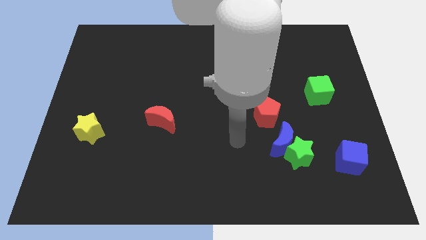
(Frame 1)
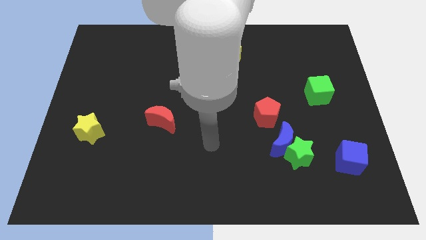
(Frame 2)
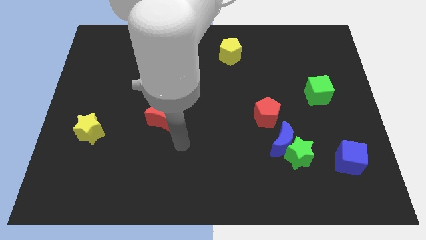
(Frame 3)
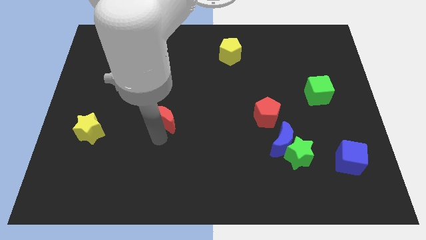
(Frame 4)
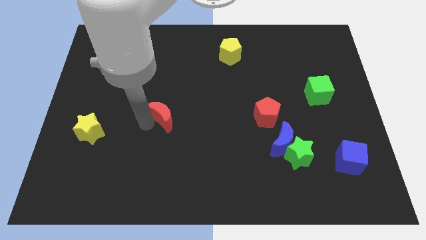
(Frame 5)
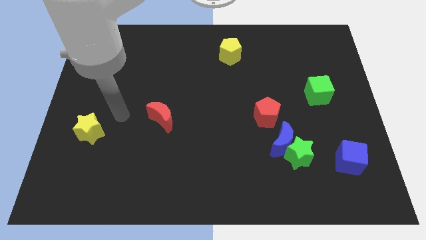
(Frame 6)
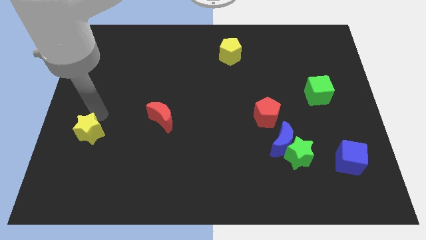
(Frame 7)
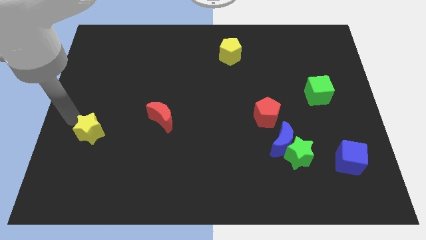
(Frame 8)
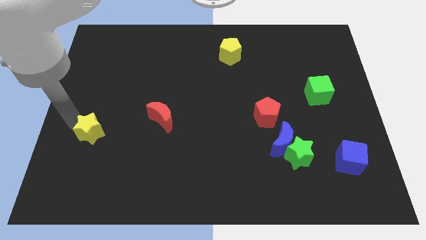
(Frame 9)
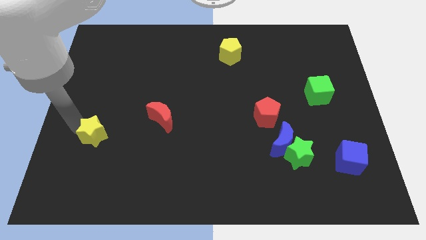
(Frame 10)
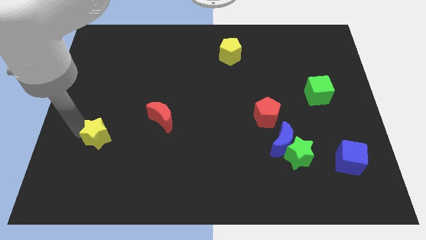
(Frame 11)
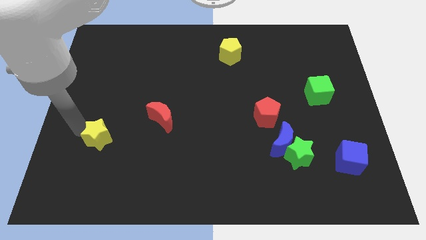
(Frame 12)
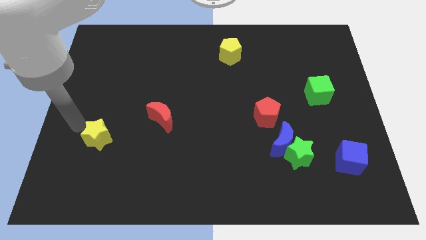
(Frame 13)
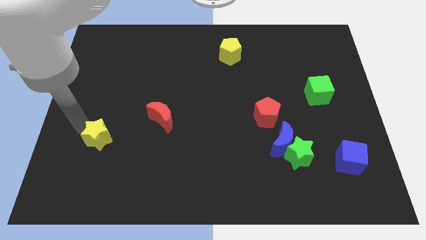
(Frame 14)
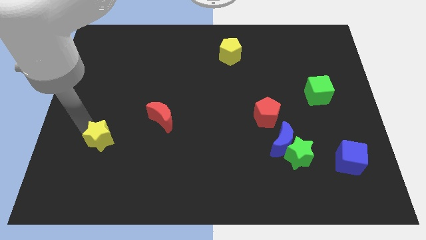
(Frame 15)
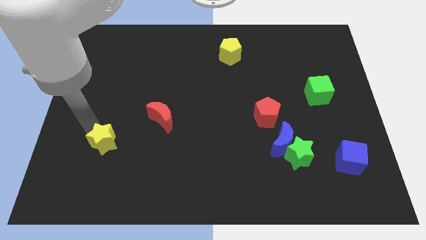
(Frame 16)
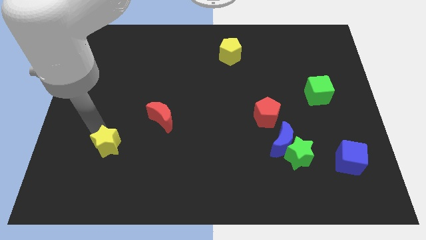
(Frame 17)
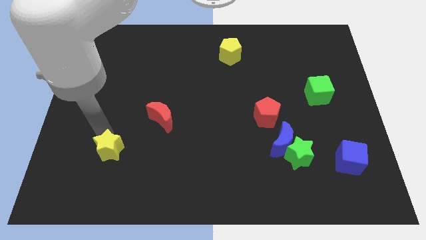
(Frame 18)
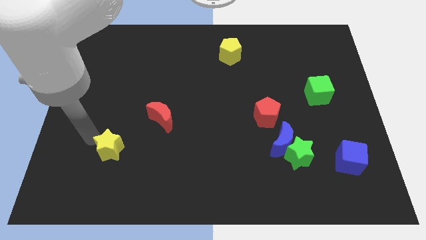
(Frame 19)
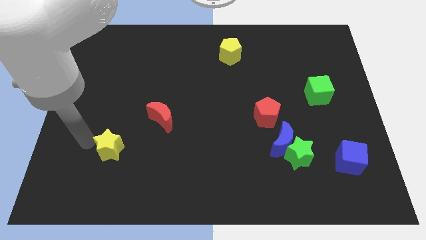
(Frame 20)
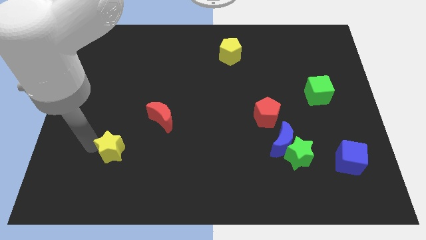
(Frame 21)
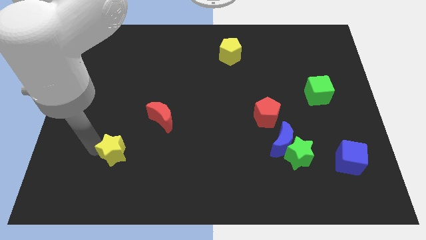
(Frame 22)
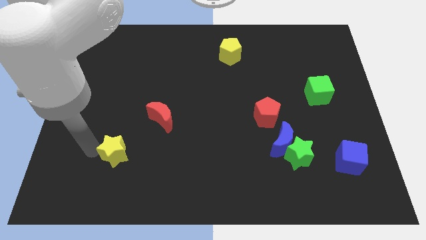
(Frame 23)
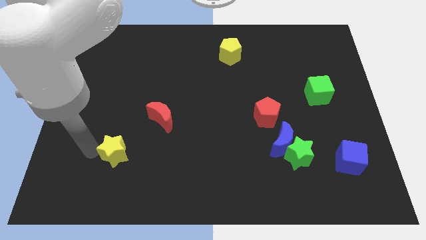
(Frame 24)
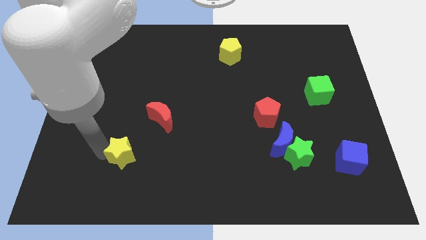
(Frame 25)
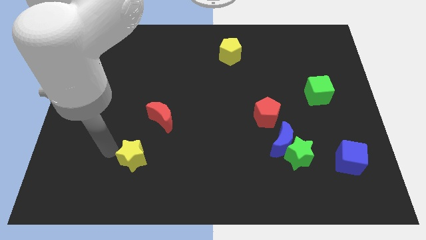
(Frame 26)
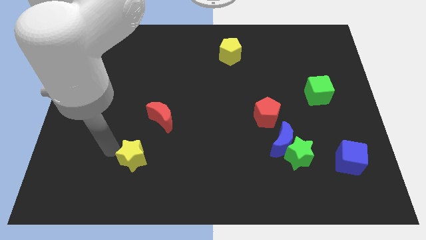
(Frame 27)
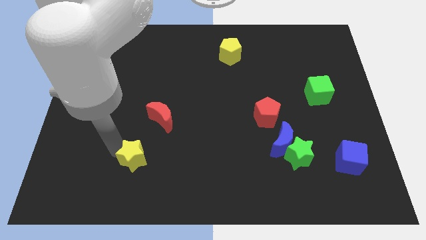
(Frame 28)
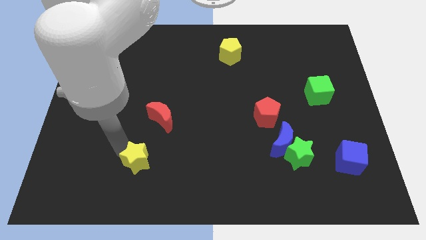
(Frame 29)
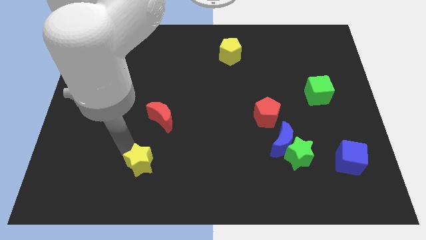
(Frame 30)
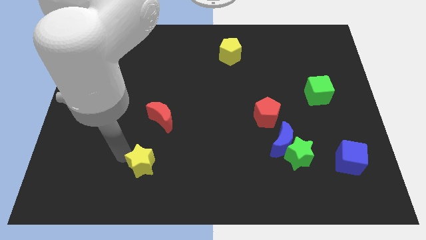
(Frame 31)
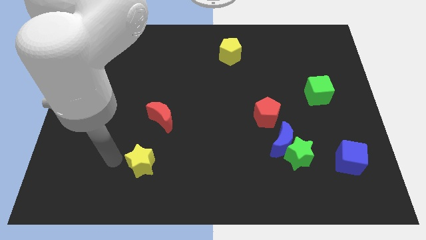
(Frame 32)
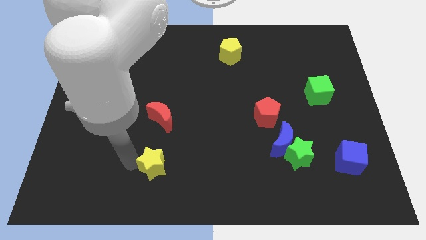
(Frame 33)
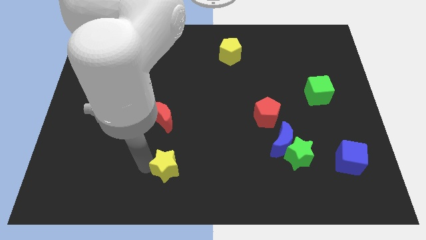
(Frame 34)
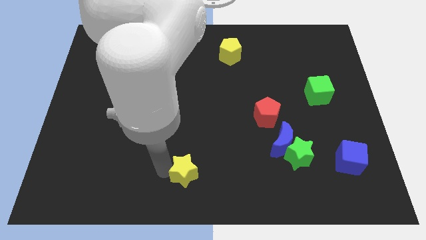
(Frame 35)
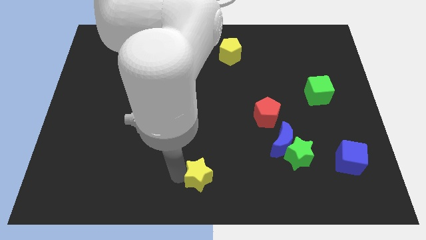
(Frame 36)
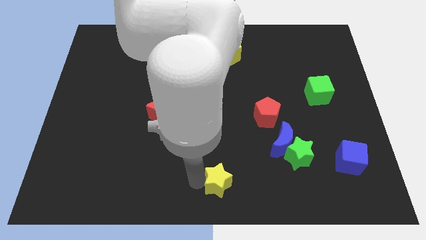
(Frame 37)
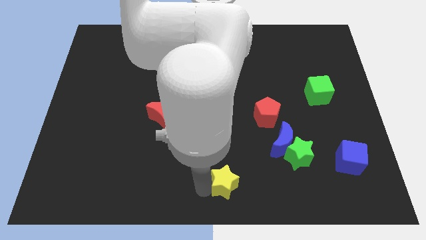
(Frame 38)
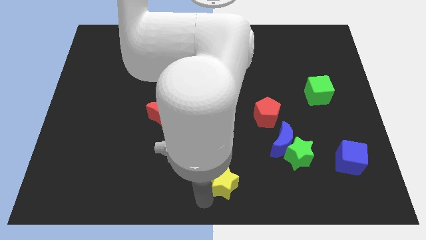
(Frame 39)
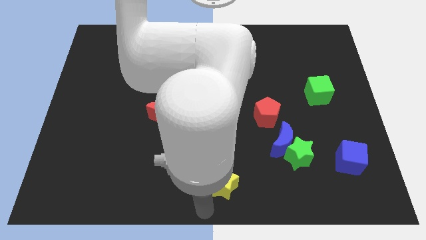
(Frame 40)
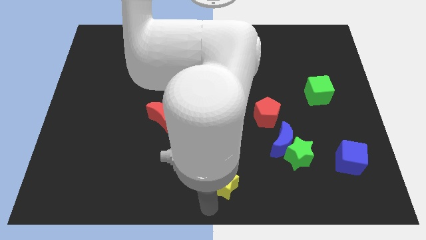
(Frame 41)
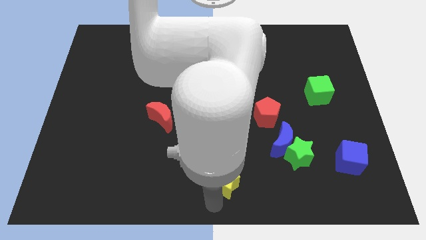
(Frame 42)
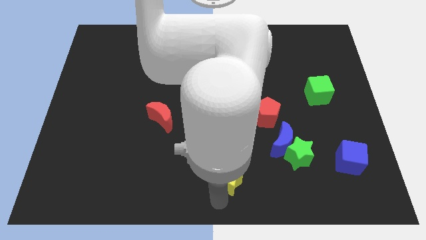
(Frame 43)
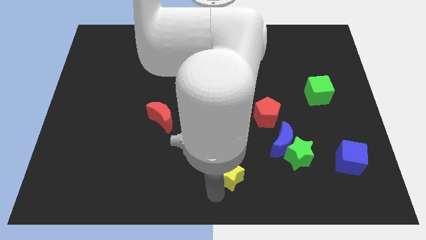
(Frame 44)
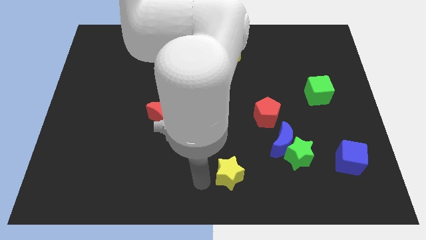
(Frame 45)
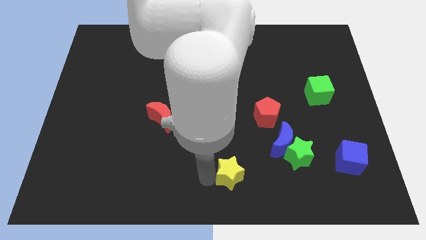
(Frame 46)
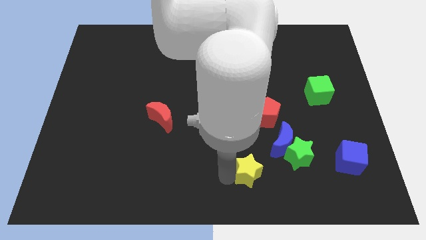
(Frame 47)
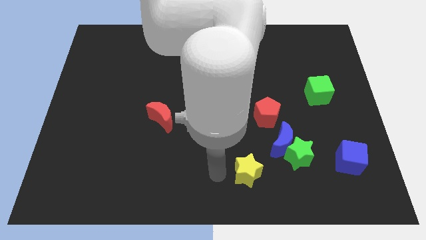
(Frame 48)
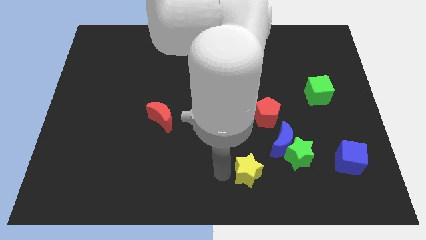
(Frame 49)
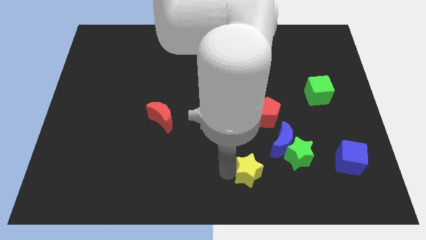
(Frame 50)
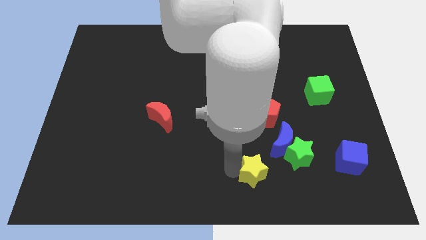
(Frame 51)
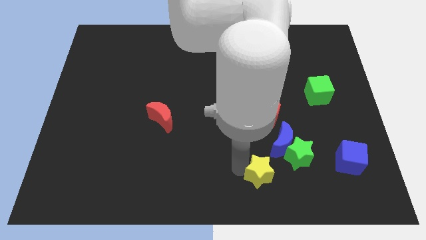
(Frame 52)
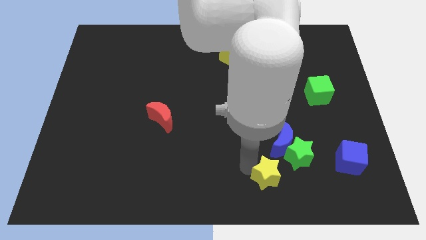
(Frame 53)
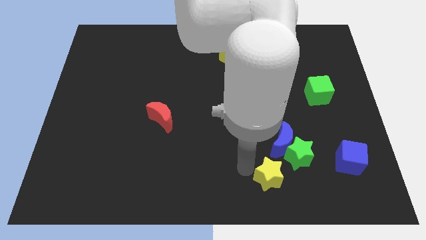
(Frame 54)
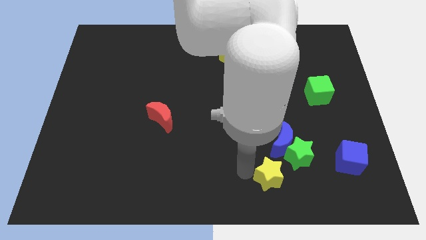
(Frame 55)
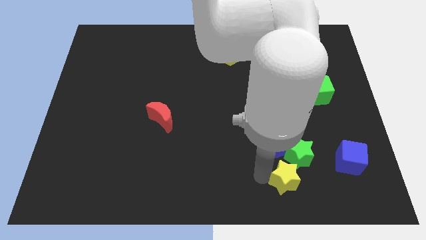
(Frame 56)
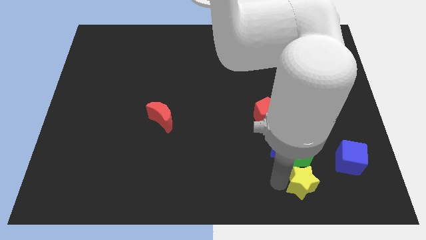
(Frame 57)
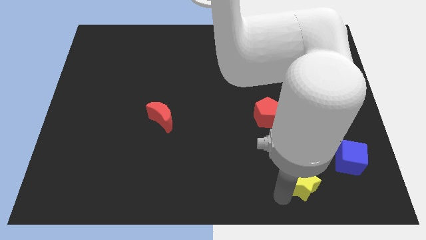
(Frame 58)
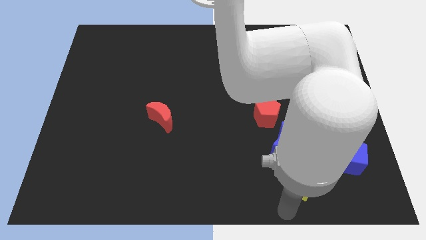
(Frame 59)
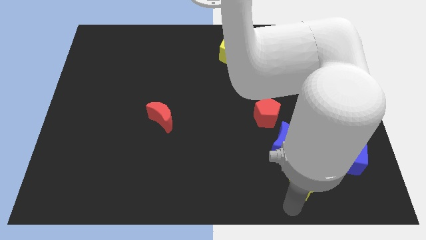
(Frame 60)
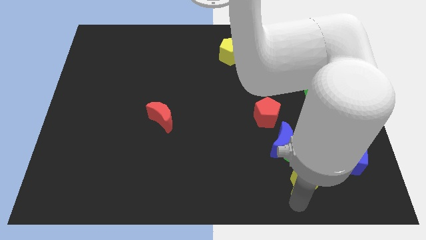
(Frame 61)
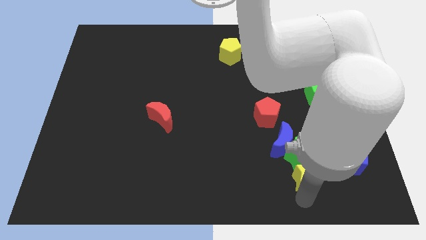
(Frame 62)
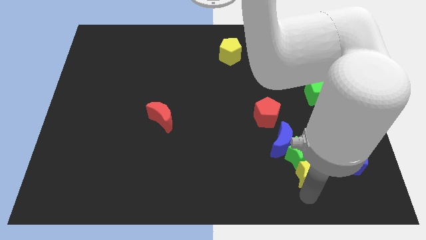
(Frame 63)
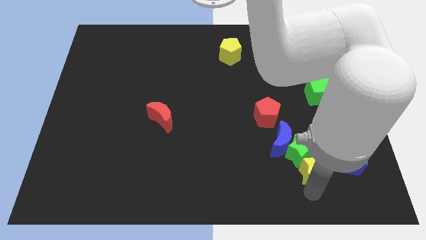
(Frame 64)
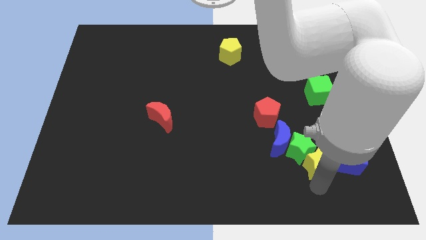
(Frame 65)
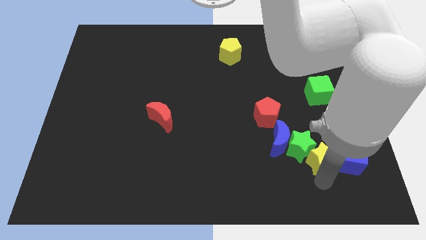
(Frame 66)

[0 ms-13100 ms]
move the yellow star to the right of the blue moon

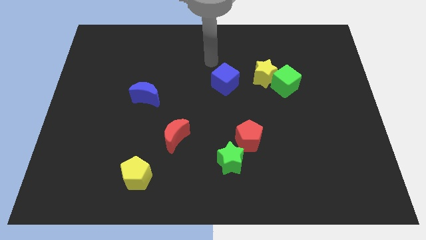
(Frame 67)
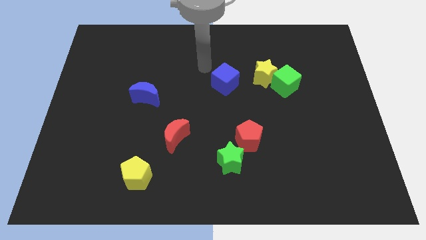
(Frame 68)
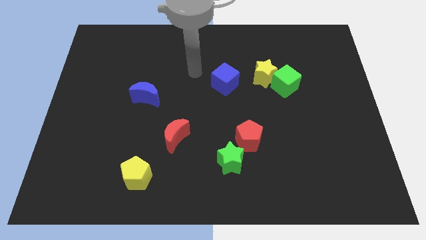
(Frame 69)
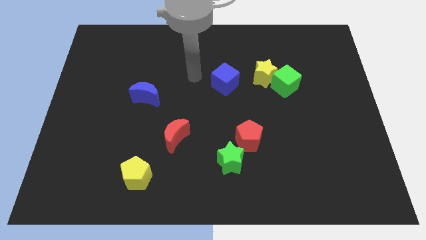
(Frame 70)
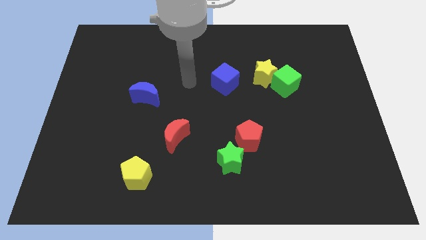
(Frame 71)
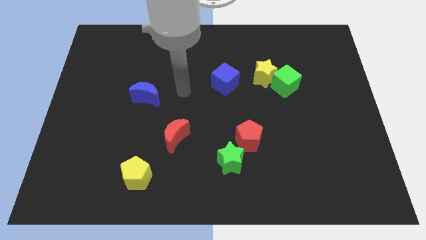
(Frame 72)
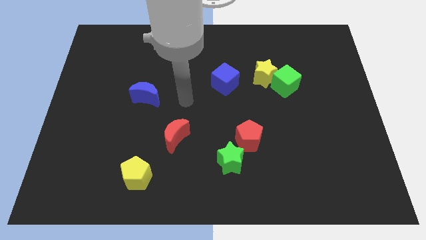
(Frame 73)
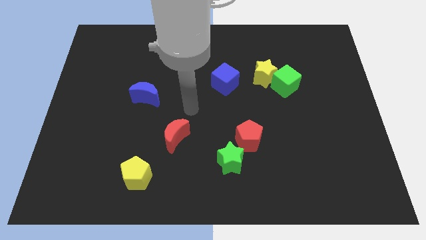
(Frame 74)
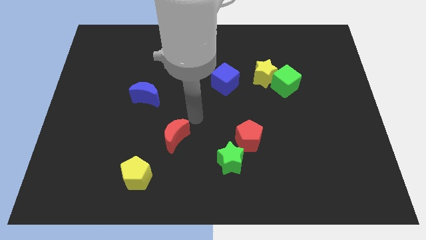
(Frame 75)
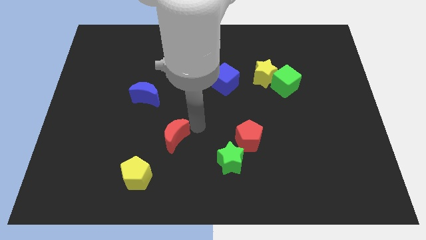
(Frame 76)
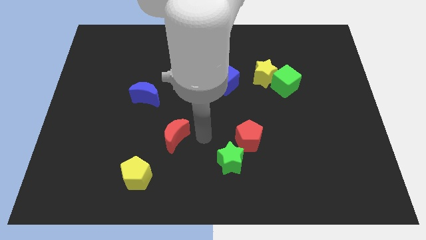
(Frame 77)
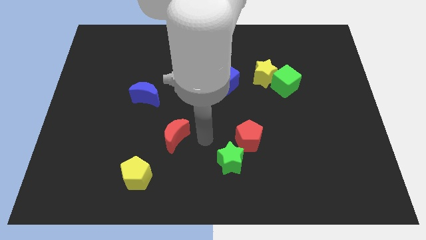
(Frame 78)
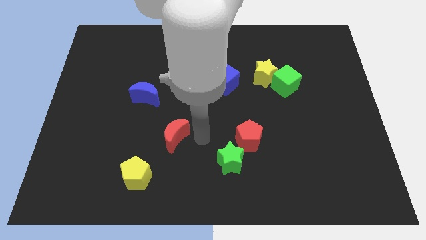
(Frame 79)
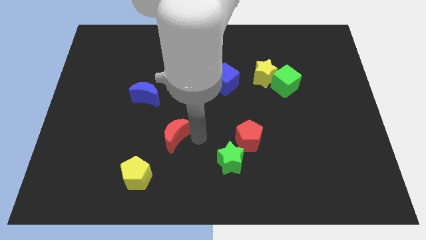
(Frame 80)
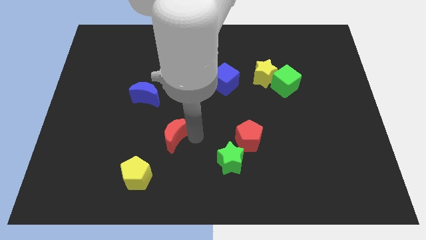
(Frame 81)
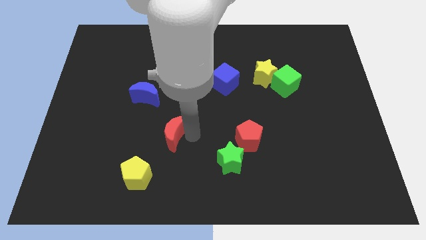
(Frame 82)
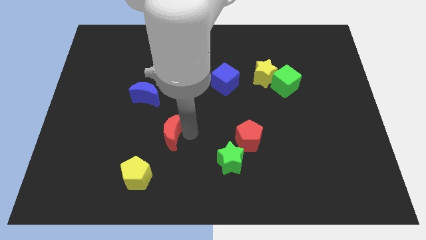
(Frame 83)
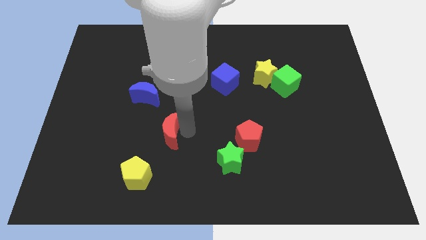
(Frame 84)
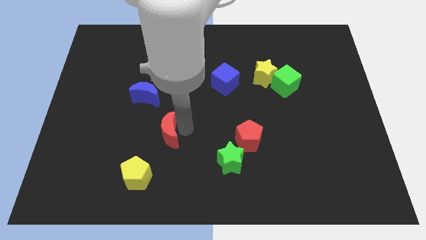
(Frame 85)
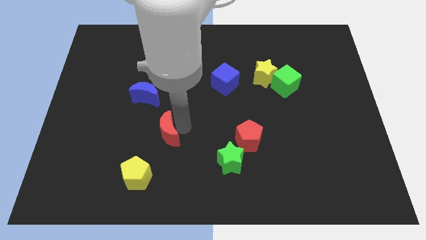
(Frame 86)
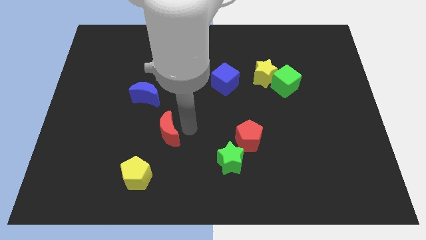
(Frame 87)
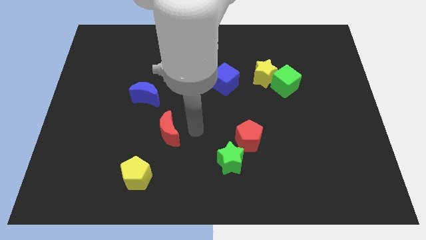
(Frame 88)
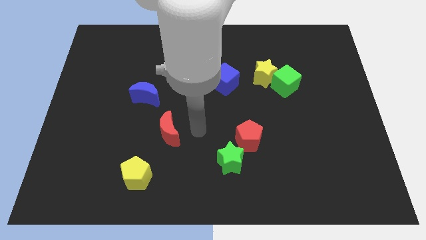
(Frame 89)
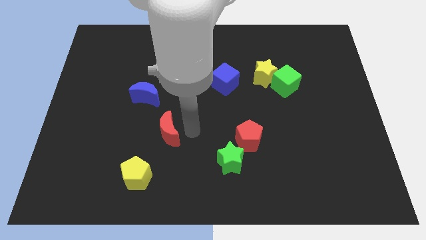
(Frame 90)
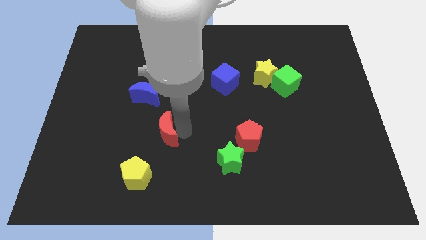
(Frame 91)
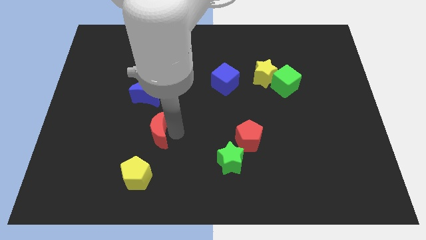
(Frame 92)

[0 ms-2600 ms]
slide the red moon to the top side of the yellow pentagon
